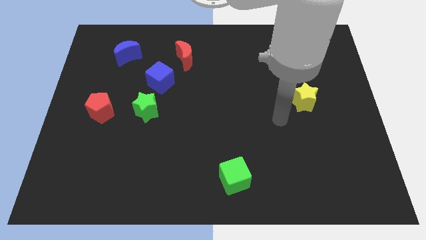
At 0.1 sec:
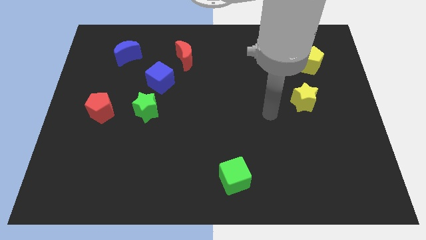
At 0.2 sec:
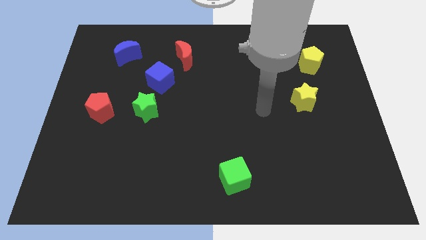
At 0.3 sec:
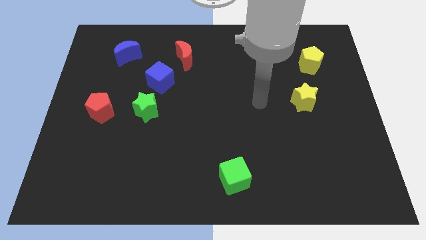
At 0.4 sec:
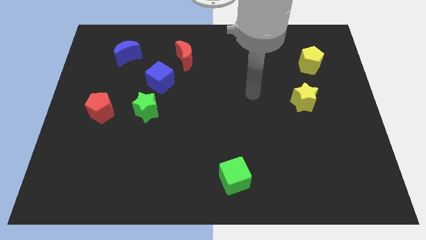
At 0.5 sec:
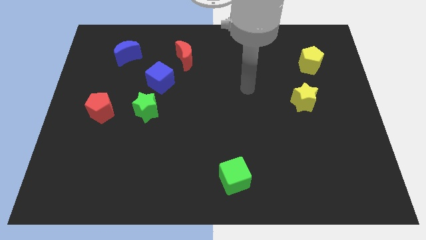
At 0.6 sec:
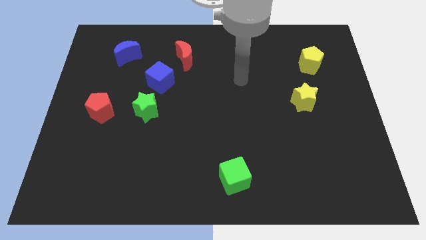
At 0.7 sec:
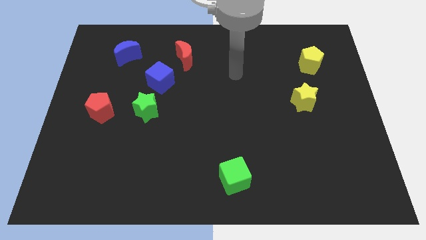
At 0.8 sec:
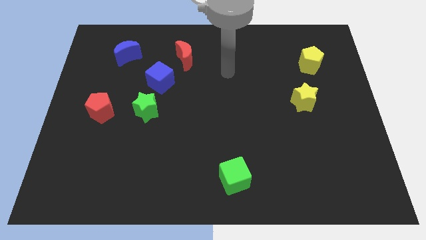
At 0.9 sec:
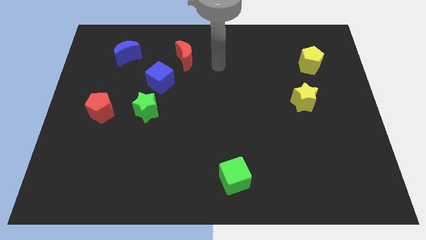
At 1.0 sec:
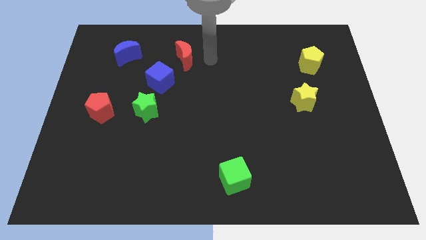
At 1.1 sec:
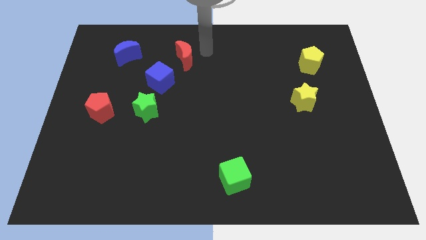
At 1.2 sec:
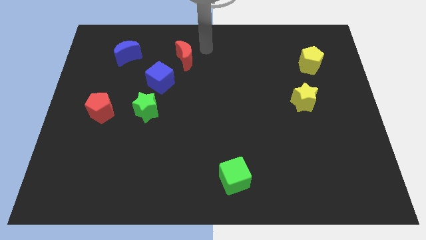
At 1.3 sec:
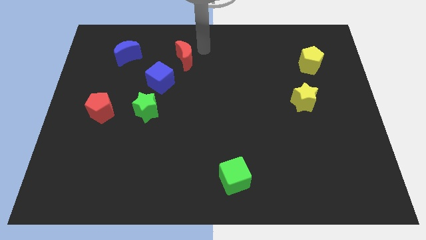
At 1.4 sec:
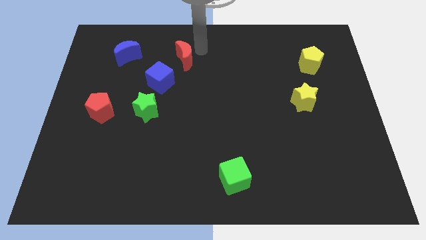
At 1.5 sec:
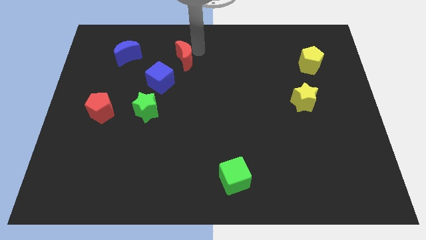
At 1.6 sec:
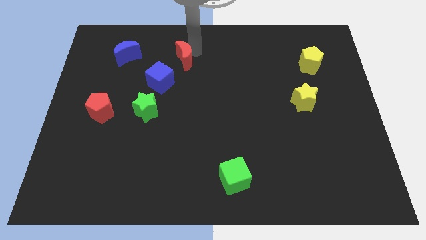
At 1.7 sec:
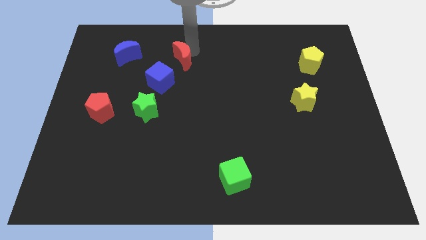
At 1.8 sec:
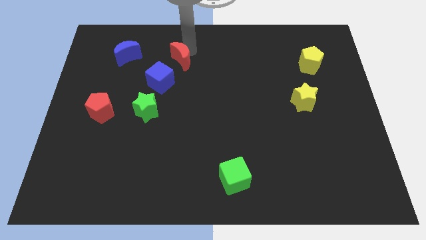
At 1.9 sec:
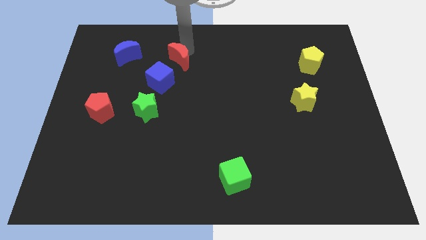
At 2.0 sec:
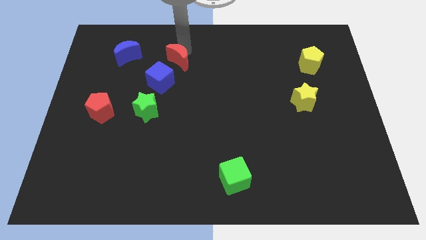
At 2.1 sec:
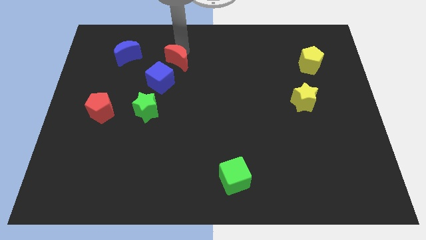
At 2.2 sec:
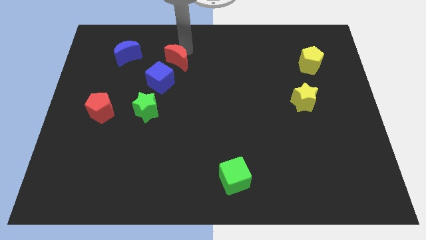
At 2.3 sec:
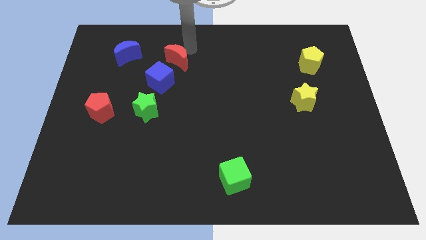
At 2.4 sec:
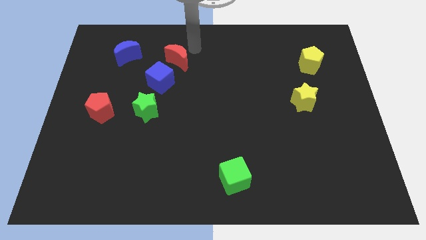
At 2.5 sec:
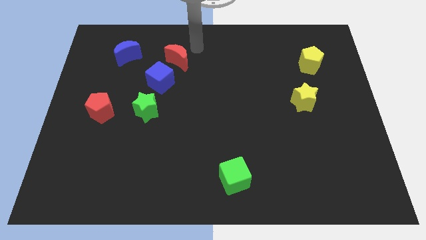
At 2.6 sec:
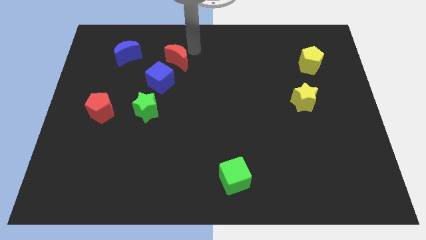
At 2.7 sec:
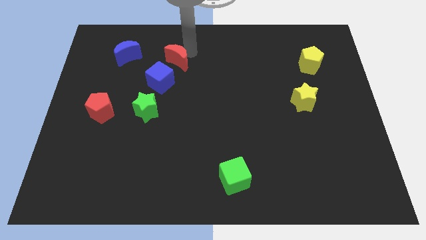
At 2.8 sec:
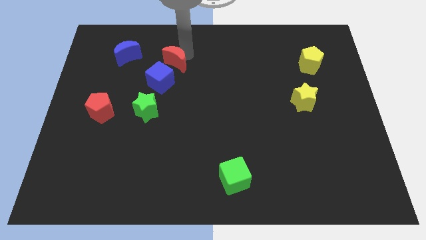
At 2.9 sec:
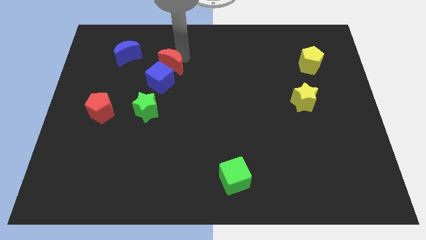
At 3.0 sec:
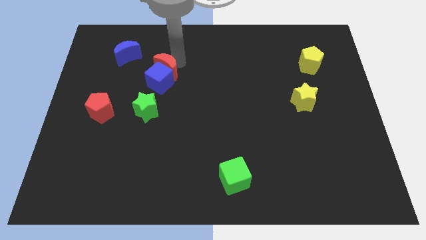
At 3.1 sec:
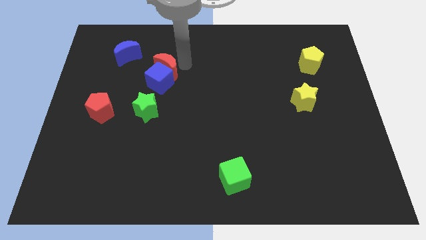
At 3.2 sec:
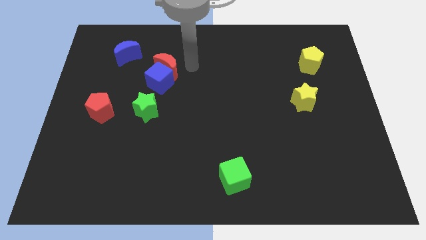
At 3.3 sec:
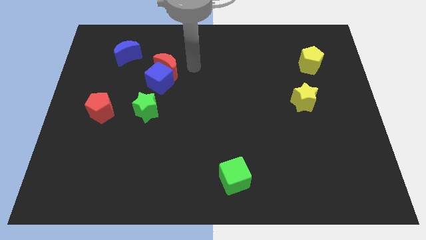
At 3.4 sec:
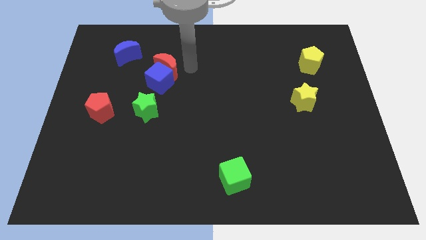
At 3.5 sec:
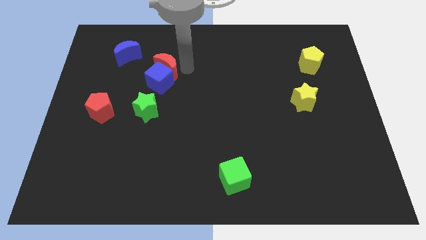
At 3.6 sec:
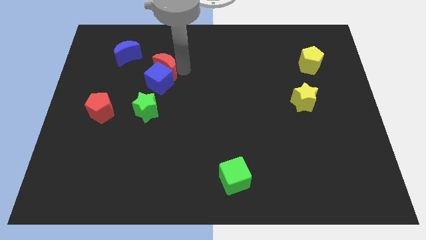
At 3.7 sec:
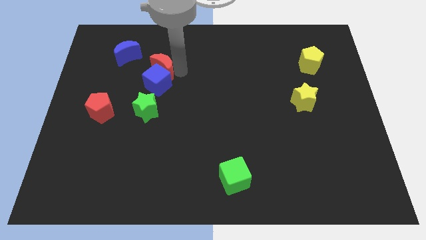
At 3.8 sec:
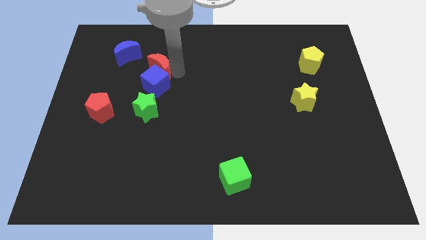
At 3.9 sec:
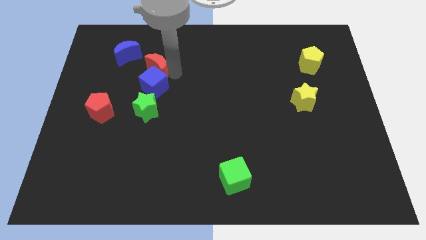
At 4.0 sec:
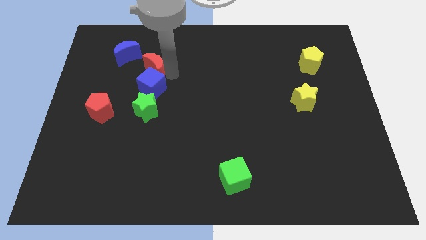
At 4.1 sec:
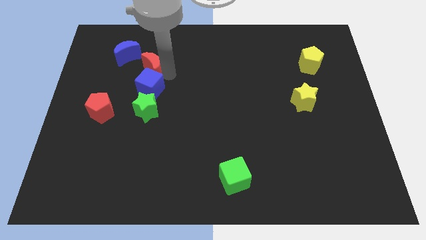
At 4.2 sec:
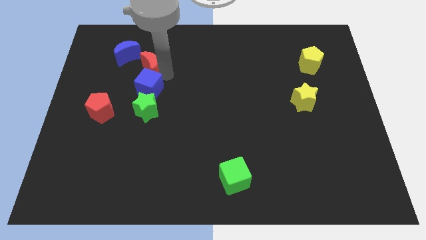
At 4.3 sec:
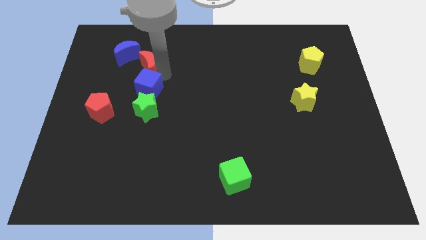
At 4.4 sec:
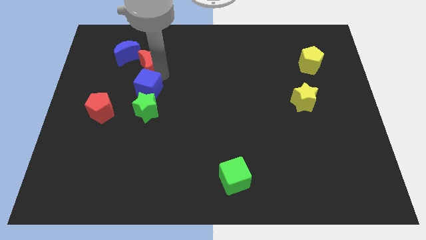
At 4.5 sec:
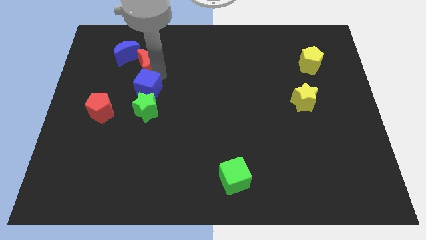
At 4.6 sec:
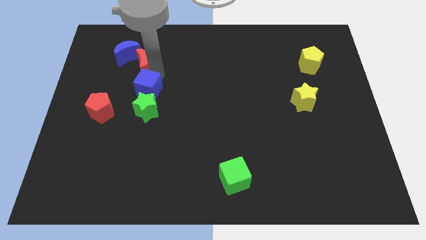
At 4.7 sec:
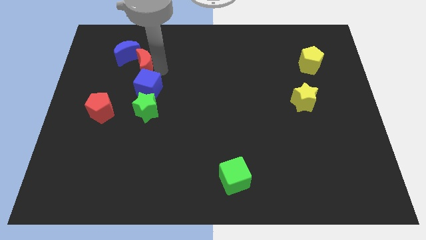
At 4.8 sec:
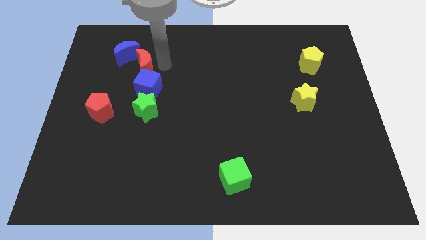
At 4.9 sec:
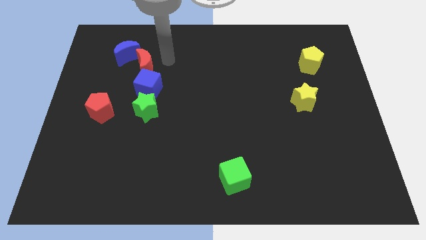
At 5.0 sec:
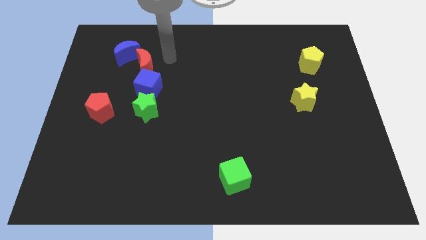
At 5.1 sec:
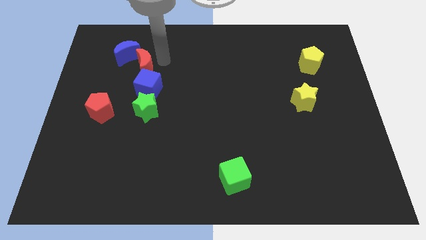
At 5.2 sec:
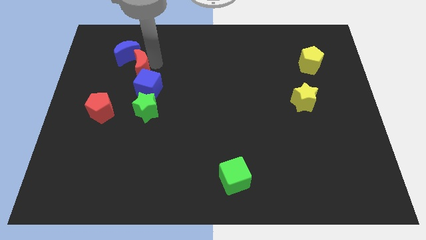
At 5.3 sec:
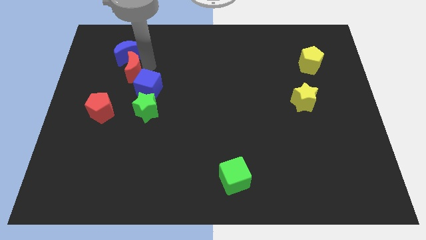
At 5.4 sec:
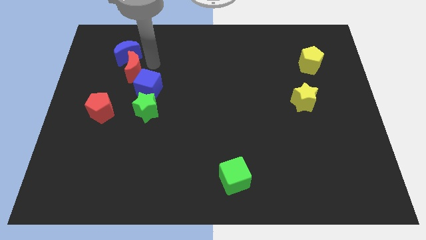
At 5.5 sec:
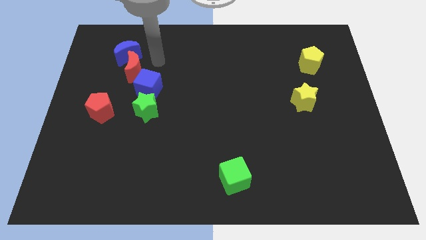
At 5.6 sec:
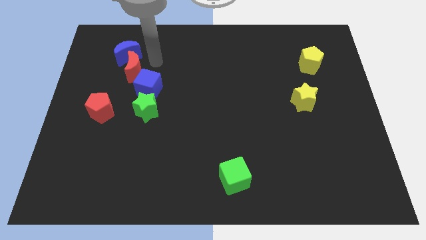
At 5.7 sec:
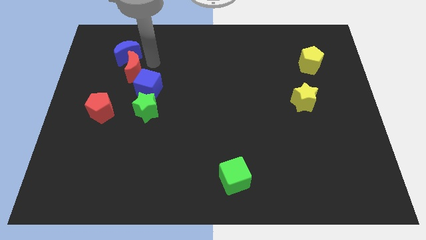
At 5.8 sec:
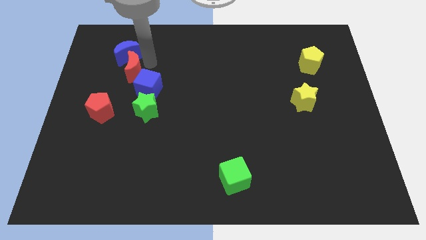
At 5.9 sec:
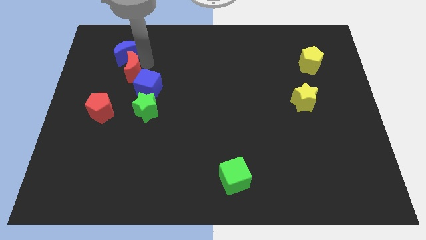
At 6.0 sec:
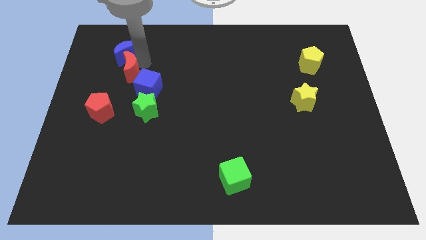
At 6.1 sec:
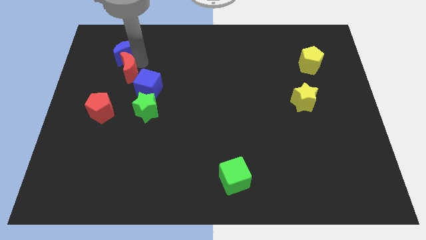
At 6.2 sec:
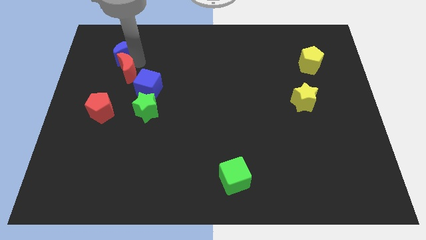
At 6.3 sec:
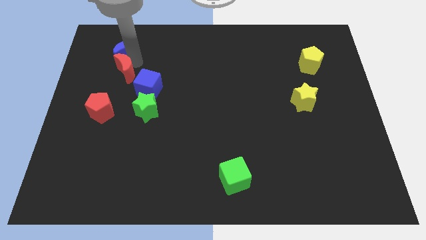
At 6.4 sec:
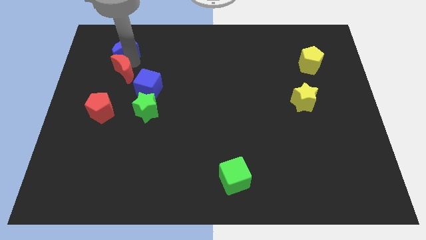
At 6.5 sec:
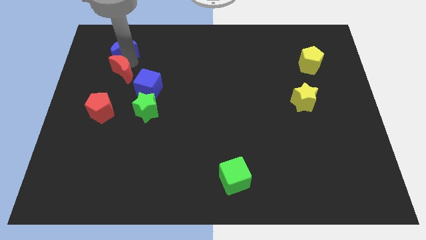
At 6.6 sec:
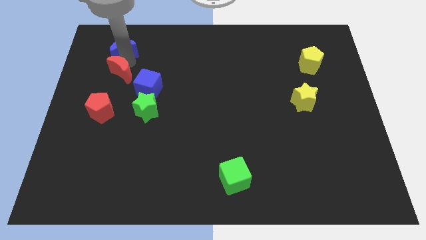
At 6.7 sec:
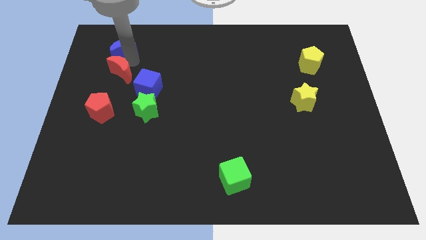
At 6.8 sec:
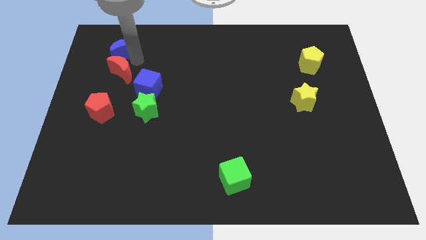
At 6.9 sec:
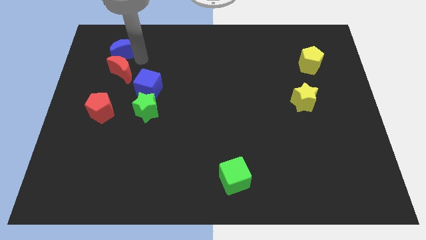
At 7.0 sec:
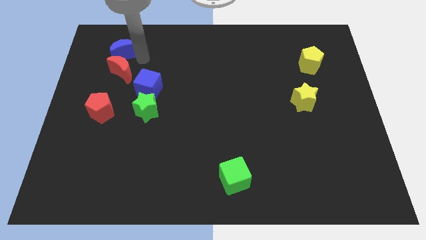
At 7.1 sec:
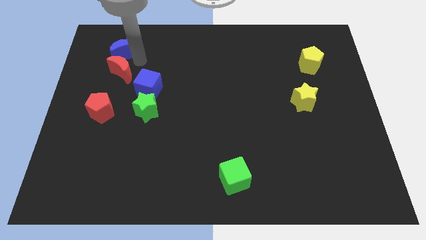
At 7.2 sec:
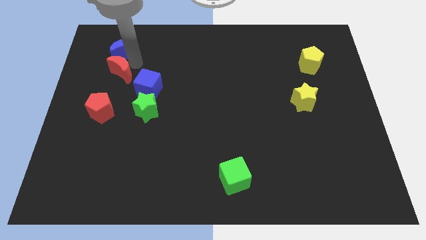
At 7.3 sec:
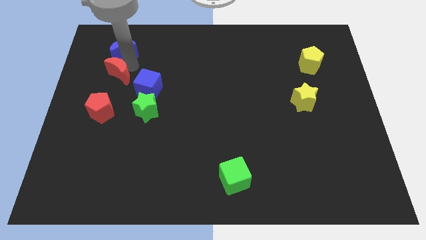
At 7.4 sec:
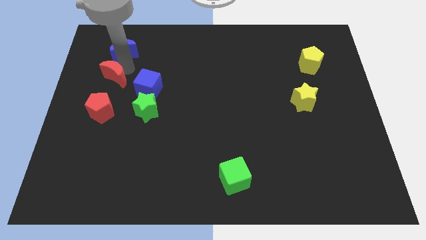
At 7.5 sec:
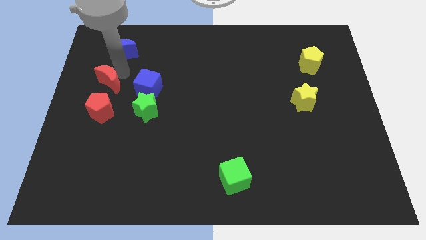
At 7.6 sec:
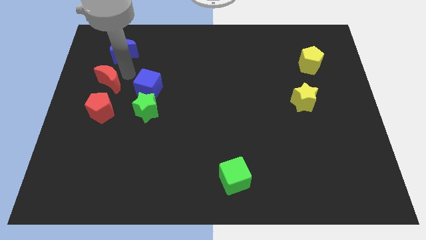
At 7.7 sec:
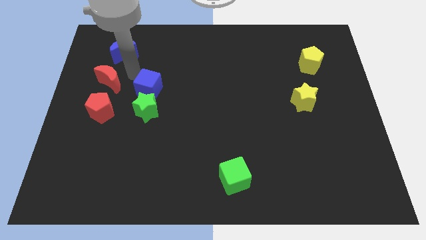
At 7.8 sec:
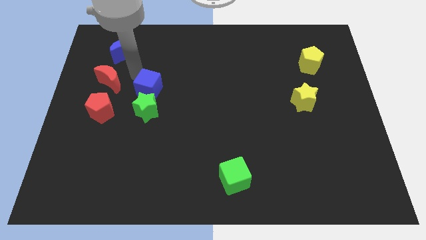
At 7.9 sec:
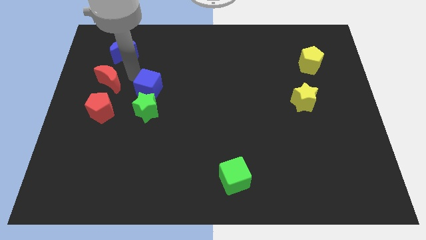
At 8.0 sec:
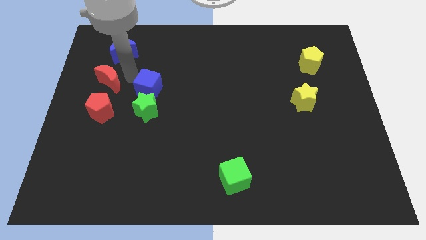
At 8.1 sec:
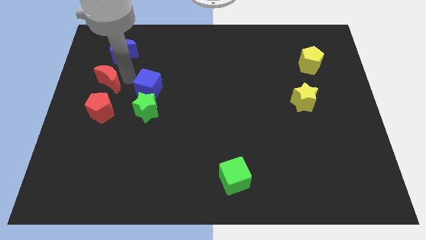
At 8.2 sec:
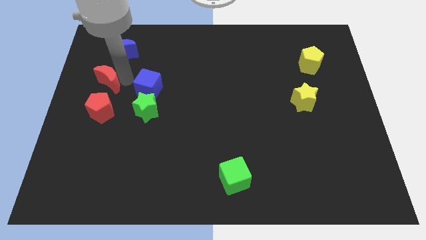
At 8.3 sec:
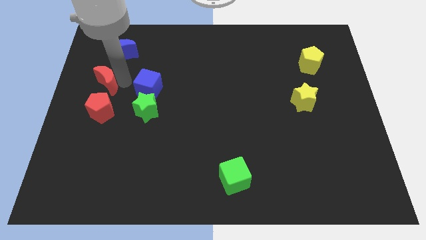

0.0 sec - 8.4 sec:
put the red moon to the left side
